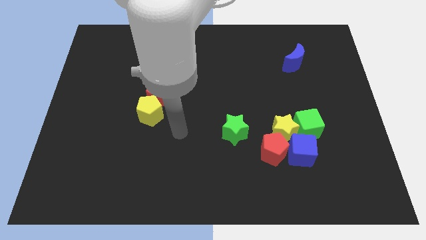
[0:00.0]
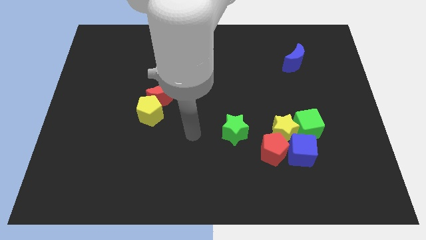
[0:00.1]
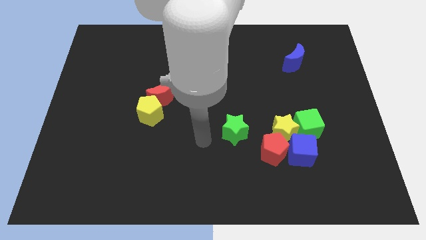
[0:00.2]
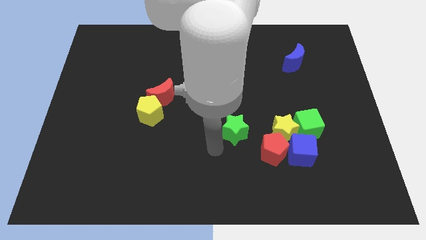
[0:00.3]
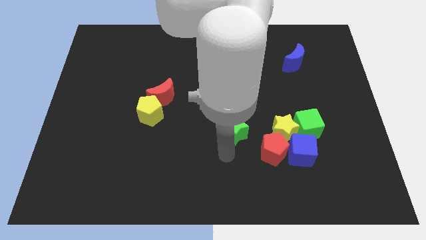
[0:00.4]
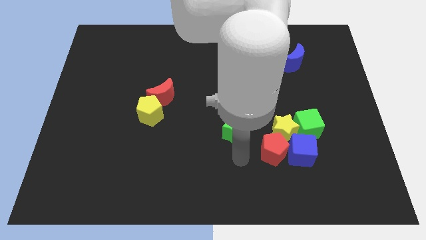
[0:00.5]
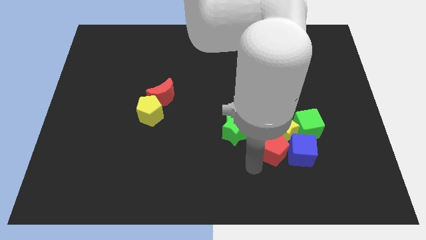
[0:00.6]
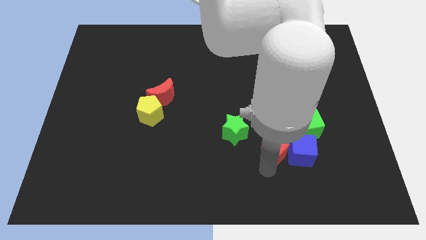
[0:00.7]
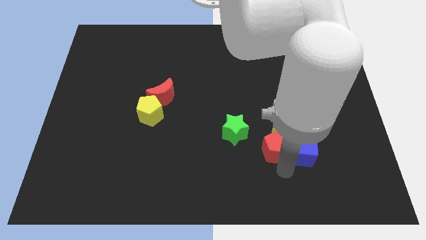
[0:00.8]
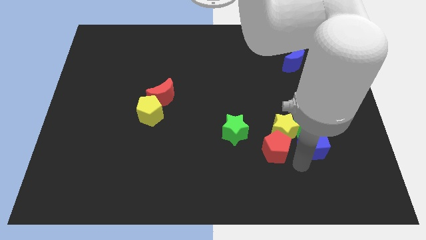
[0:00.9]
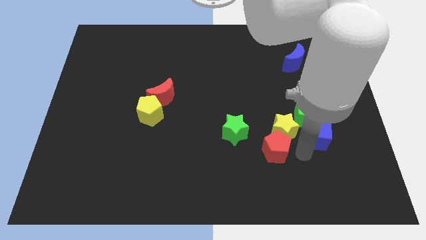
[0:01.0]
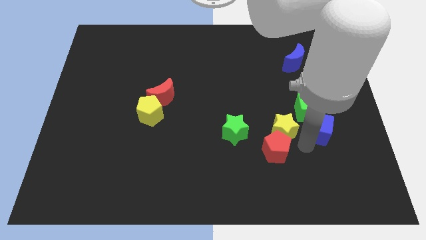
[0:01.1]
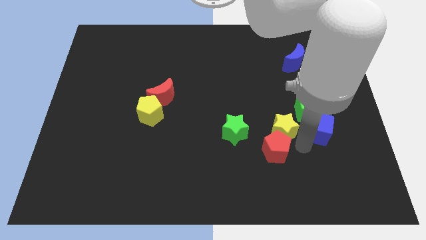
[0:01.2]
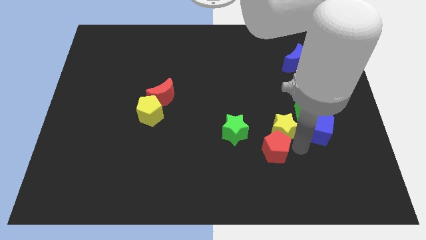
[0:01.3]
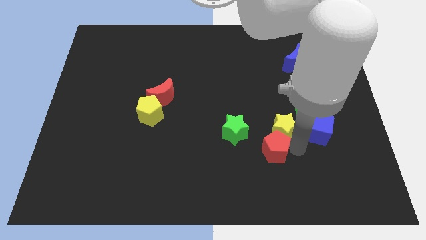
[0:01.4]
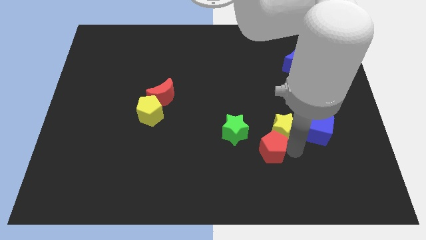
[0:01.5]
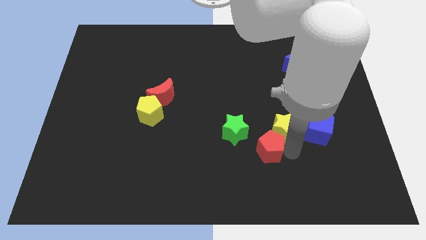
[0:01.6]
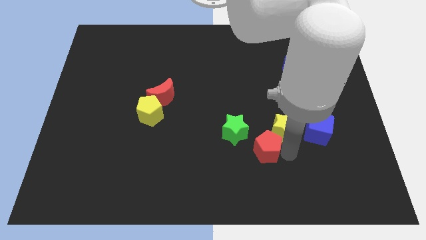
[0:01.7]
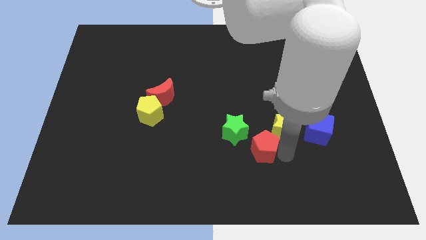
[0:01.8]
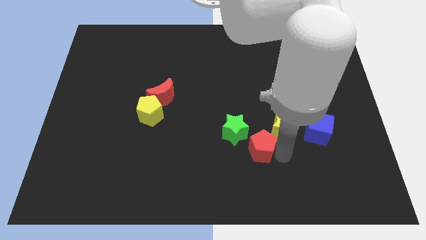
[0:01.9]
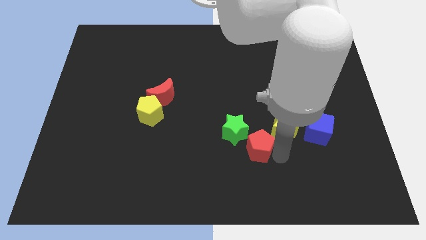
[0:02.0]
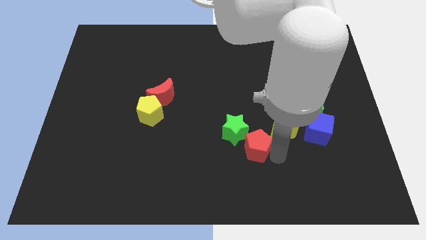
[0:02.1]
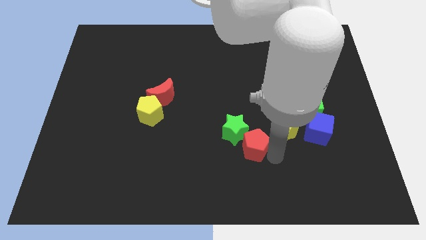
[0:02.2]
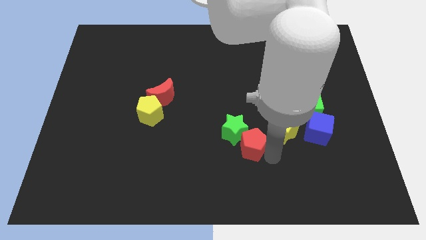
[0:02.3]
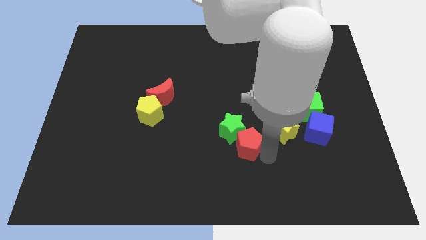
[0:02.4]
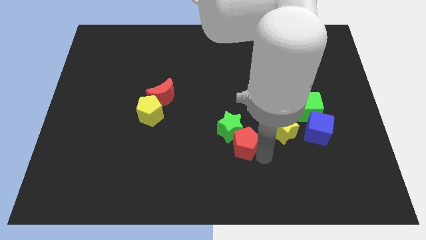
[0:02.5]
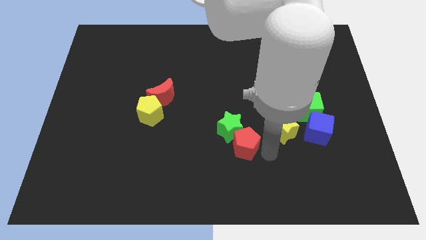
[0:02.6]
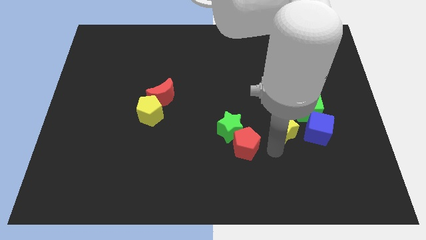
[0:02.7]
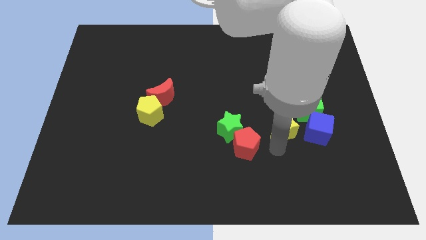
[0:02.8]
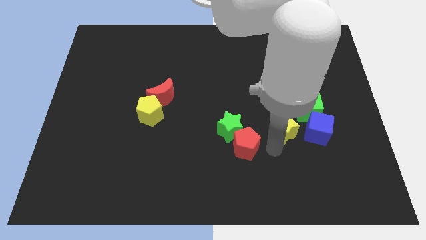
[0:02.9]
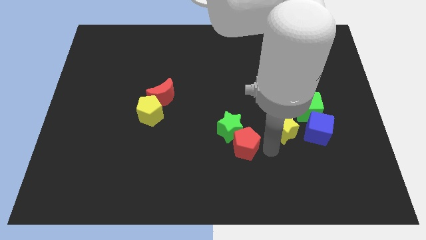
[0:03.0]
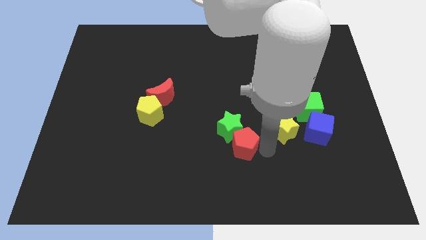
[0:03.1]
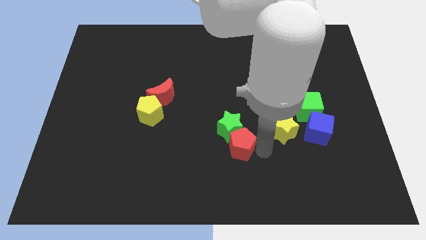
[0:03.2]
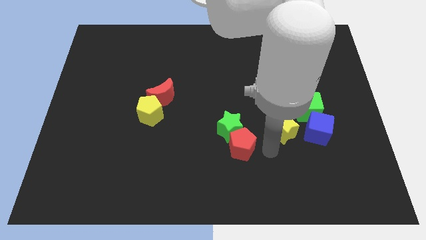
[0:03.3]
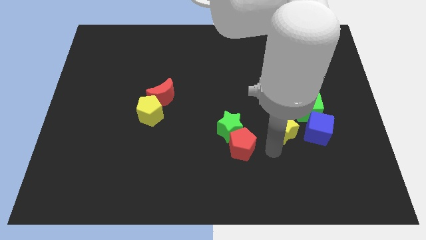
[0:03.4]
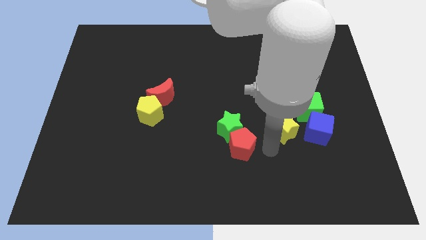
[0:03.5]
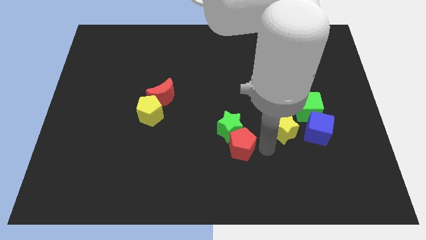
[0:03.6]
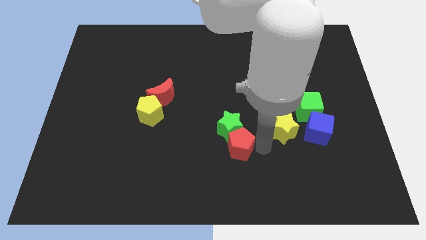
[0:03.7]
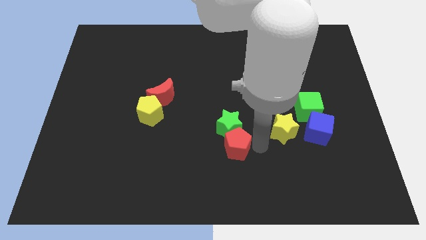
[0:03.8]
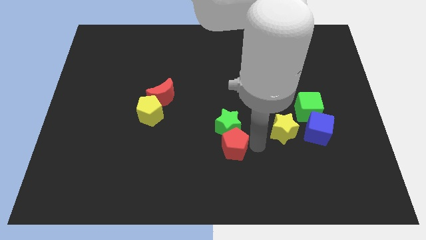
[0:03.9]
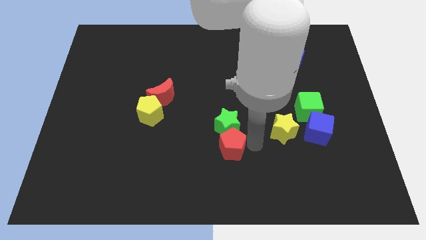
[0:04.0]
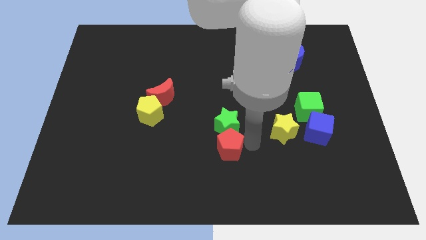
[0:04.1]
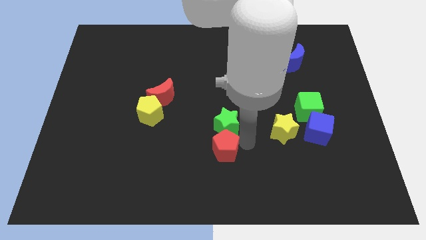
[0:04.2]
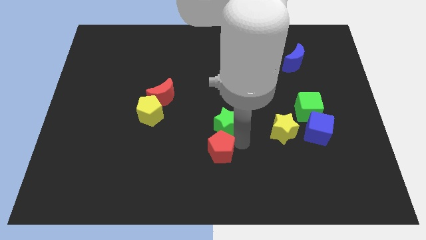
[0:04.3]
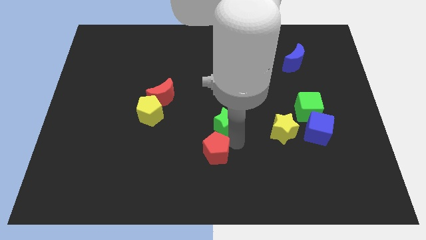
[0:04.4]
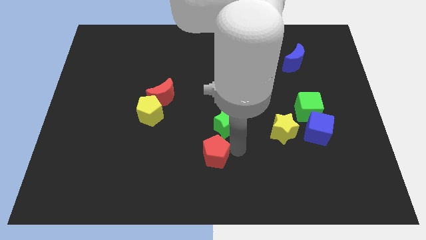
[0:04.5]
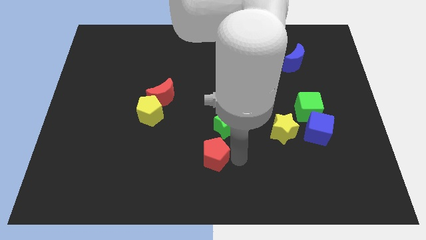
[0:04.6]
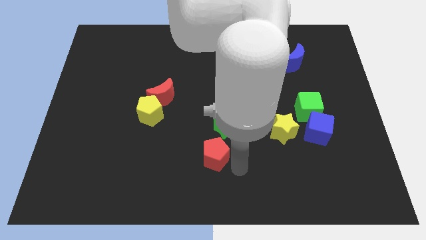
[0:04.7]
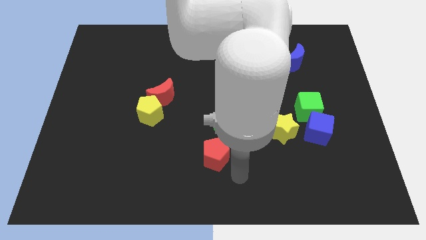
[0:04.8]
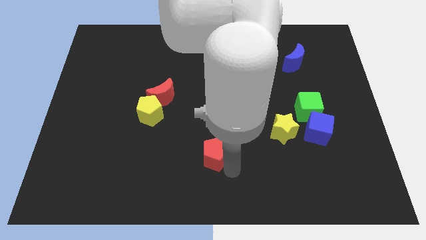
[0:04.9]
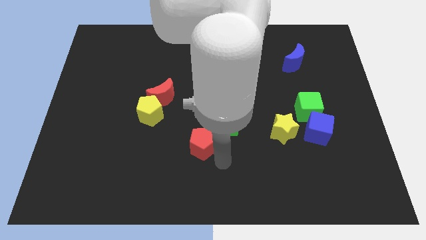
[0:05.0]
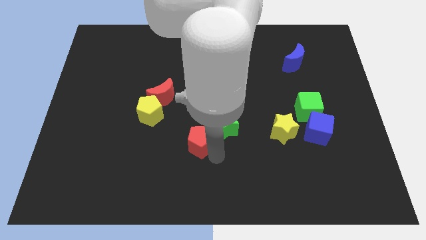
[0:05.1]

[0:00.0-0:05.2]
move the red pentagon to the left side of the green star

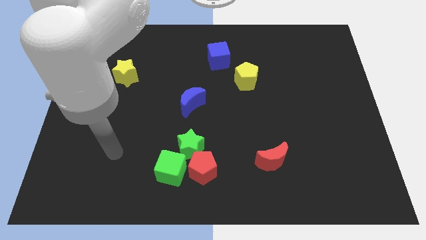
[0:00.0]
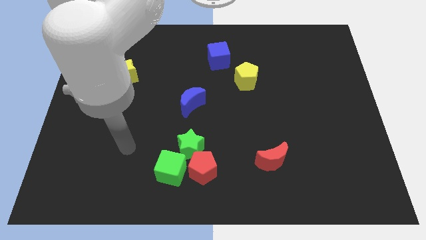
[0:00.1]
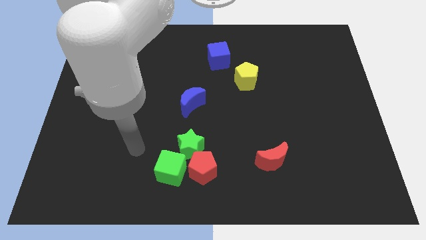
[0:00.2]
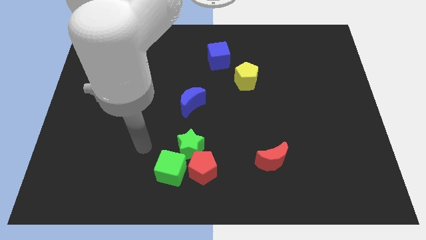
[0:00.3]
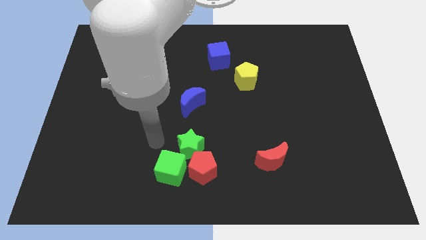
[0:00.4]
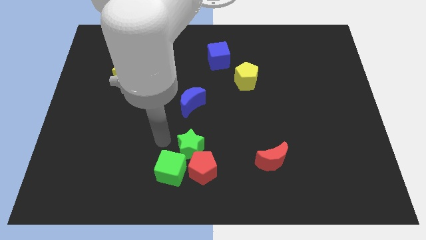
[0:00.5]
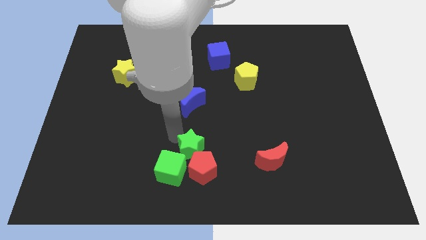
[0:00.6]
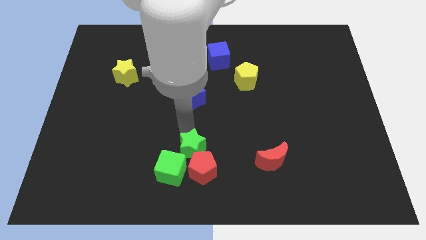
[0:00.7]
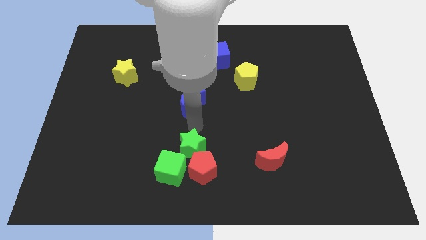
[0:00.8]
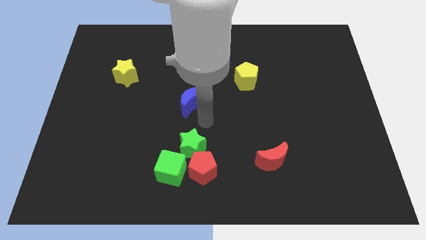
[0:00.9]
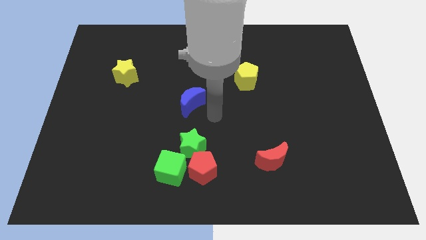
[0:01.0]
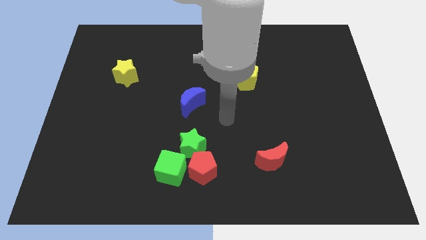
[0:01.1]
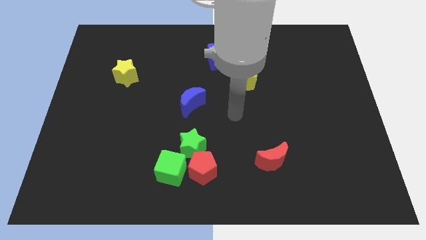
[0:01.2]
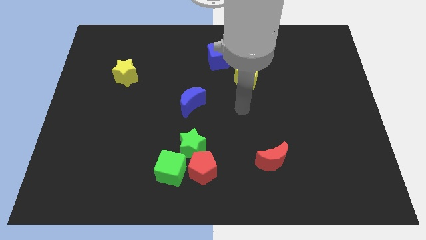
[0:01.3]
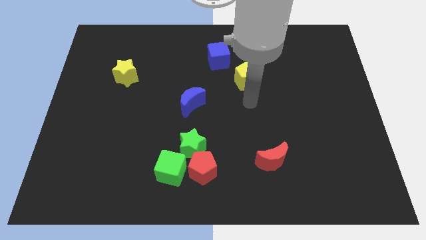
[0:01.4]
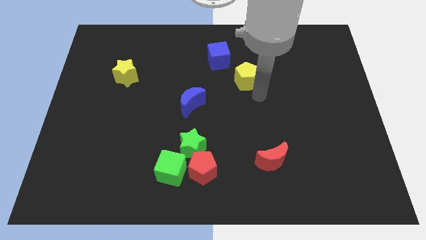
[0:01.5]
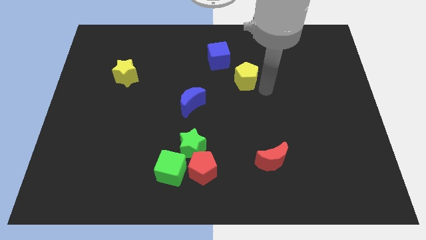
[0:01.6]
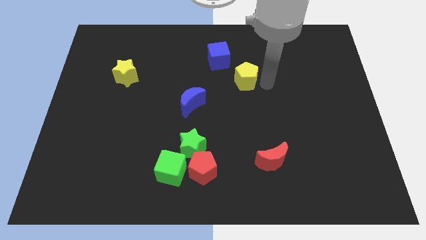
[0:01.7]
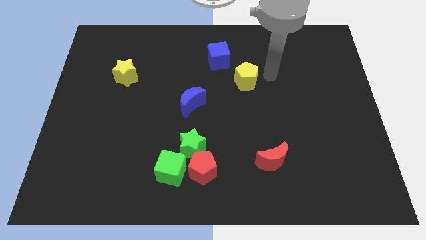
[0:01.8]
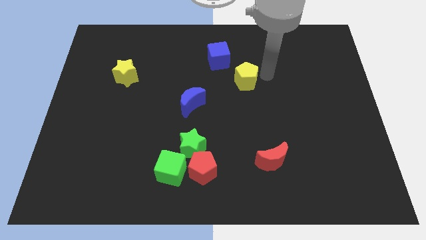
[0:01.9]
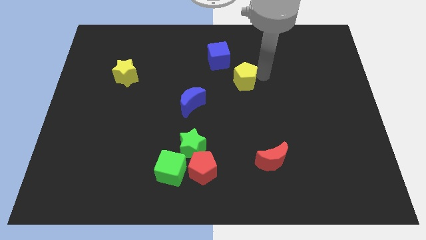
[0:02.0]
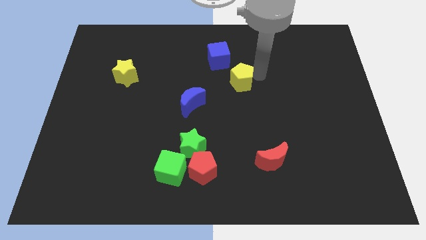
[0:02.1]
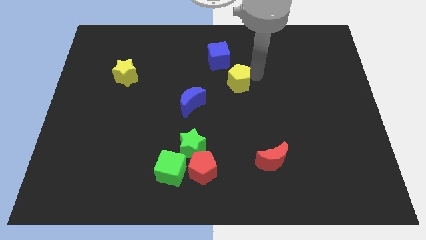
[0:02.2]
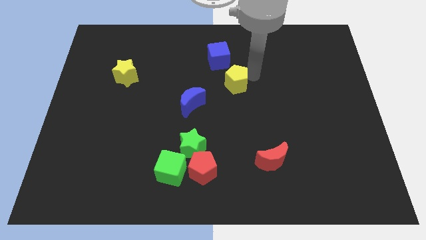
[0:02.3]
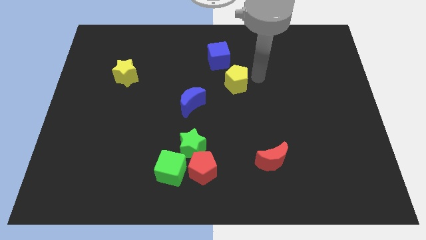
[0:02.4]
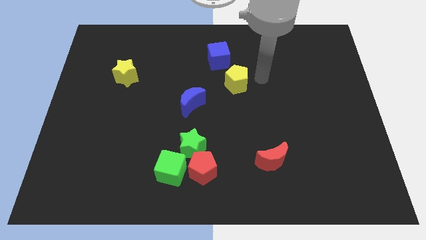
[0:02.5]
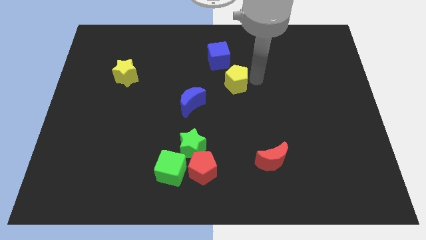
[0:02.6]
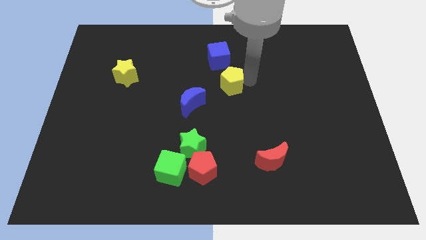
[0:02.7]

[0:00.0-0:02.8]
push the yellow pentagon to the top right of the blue moon
